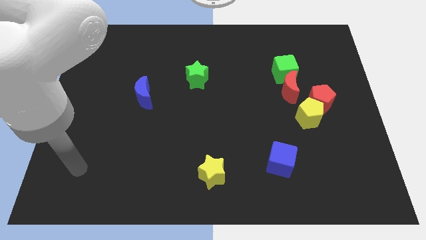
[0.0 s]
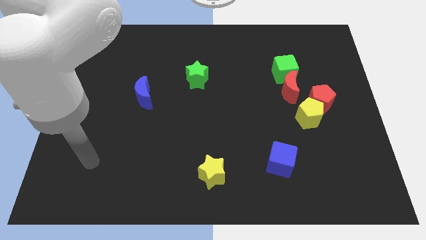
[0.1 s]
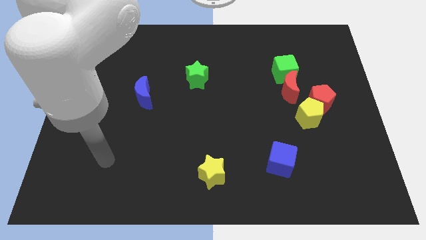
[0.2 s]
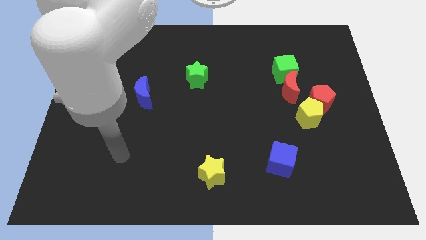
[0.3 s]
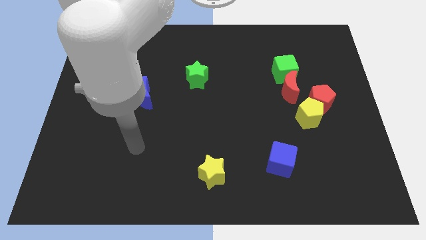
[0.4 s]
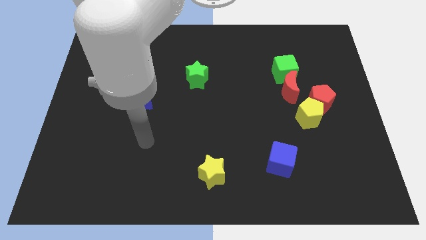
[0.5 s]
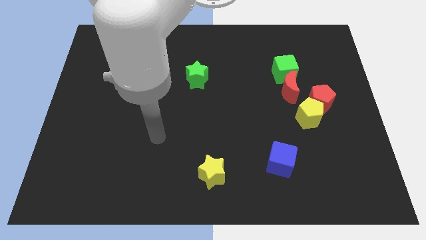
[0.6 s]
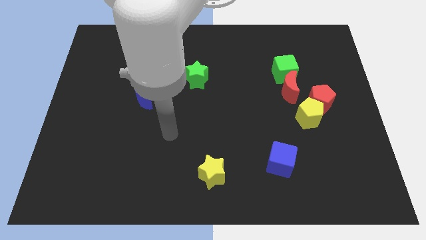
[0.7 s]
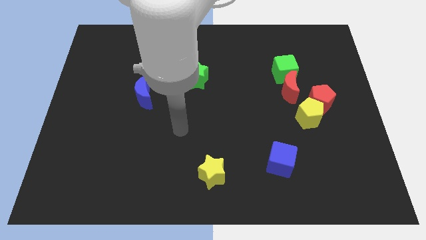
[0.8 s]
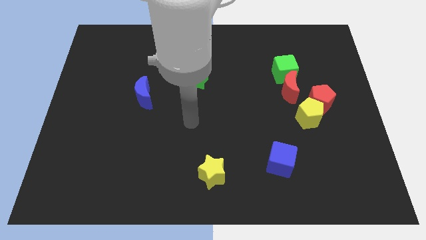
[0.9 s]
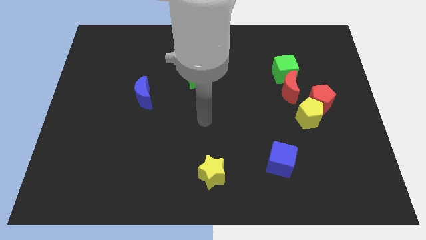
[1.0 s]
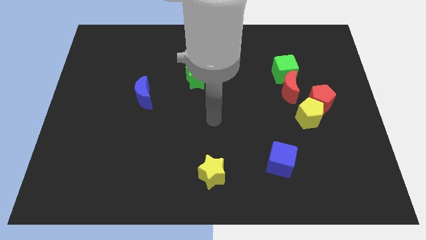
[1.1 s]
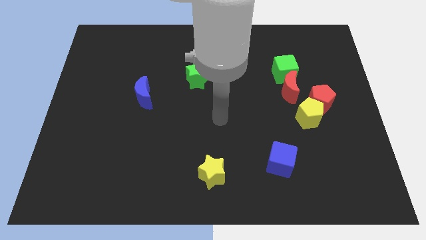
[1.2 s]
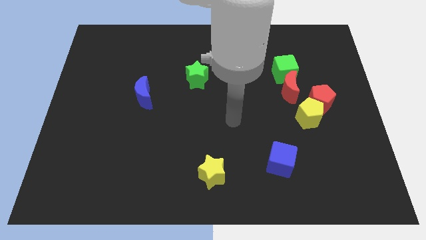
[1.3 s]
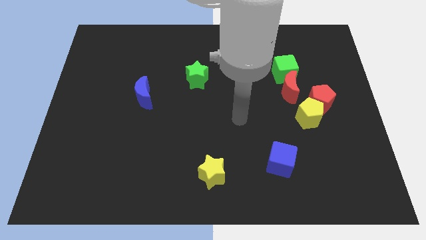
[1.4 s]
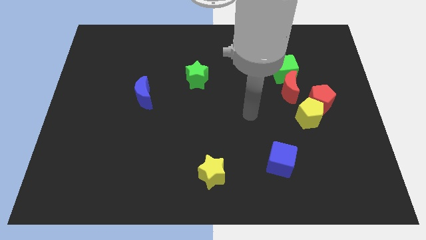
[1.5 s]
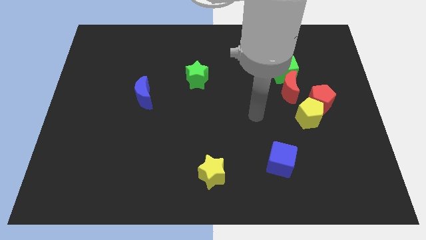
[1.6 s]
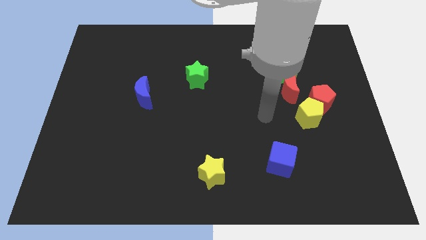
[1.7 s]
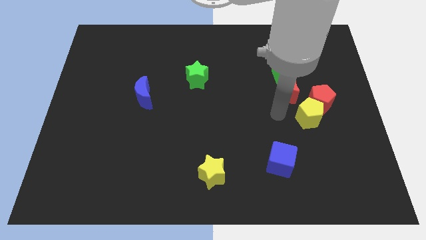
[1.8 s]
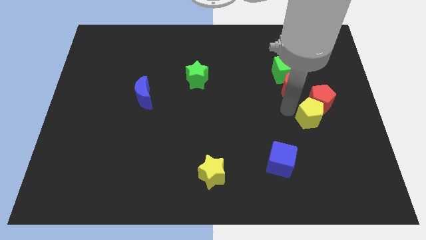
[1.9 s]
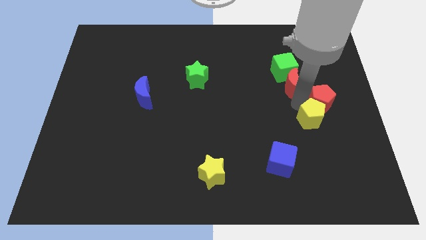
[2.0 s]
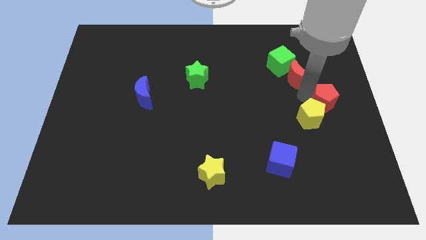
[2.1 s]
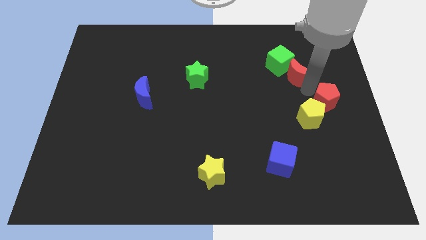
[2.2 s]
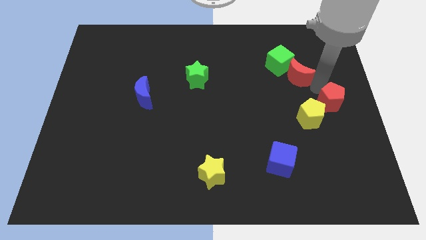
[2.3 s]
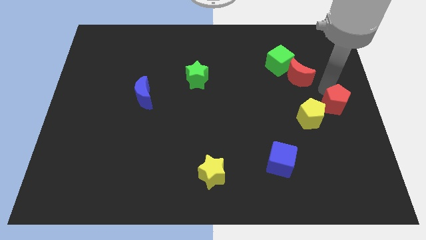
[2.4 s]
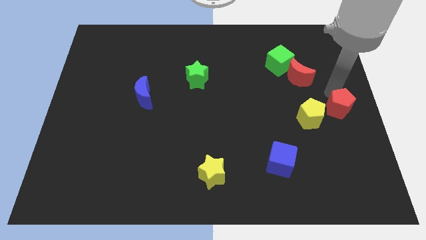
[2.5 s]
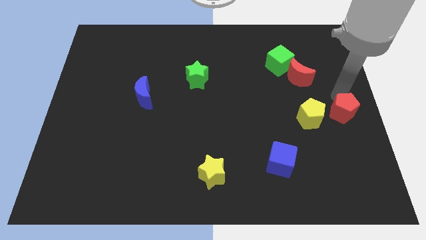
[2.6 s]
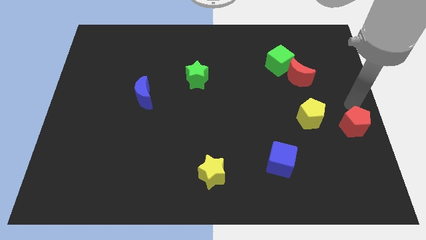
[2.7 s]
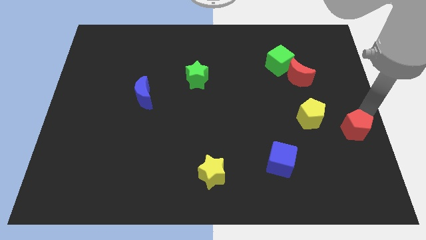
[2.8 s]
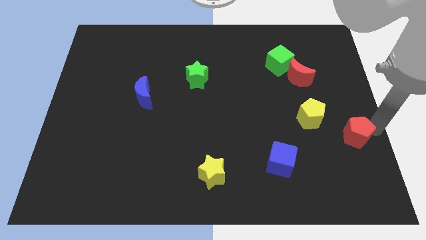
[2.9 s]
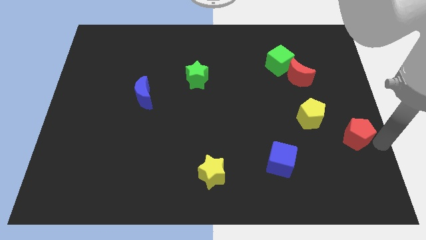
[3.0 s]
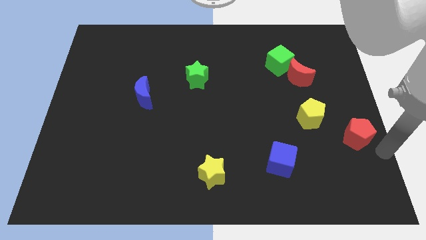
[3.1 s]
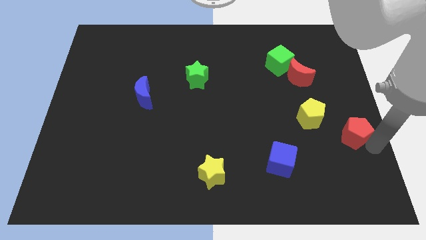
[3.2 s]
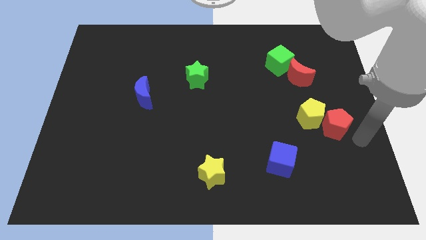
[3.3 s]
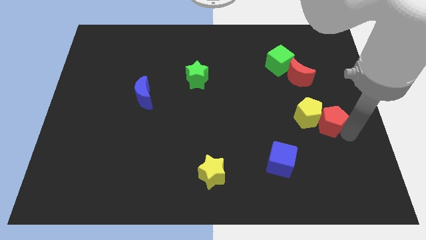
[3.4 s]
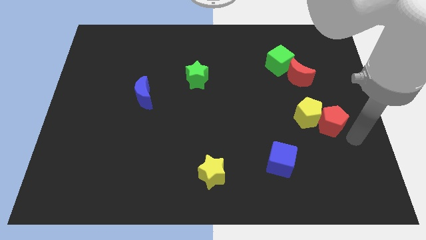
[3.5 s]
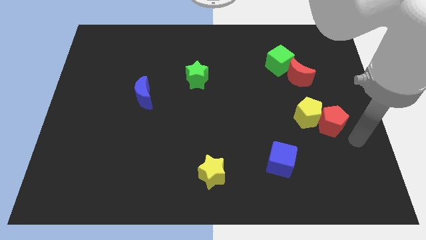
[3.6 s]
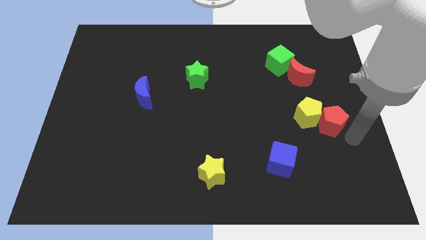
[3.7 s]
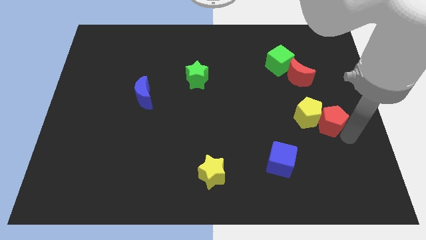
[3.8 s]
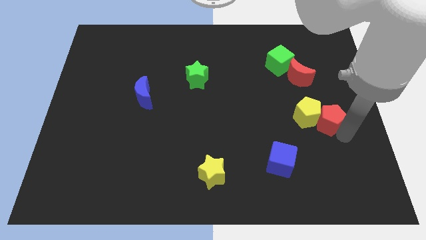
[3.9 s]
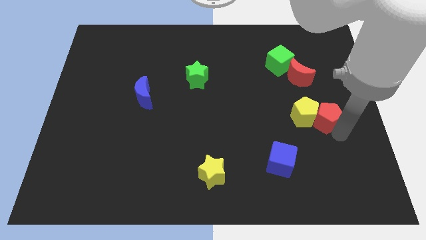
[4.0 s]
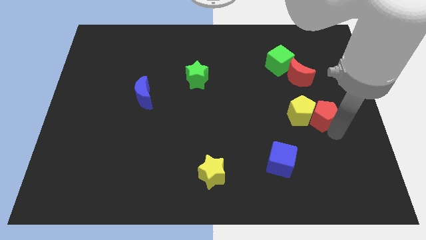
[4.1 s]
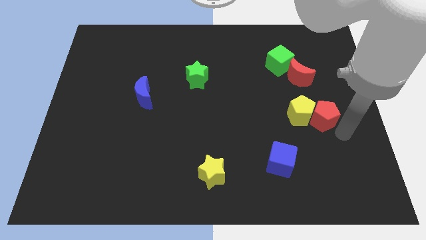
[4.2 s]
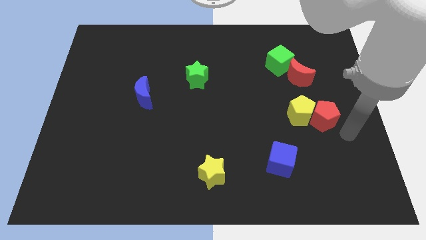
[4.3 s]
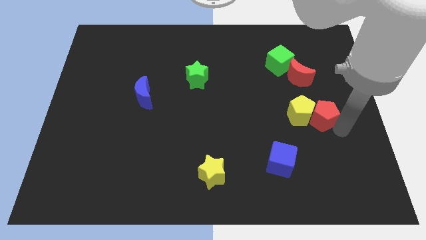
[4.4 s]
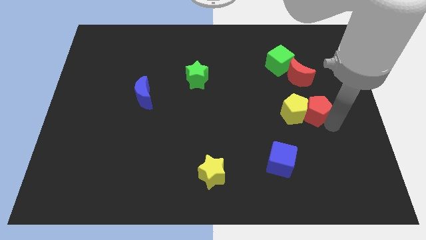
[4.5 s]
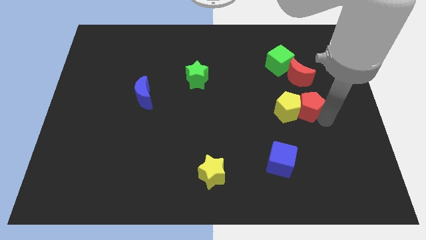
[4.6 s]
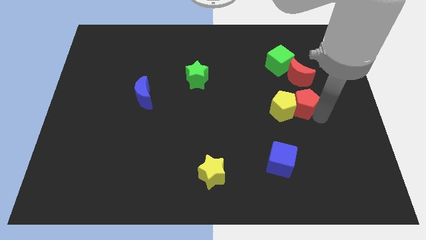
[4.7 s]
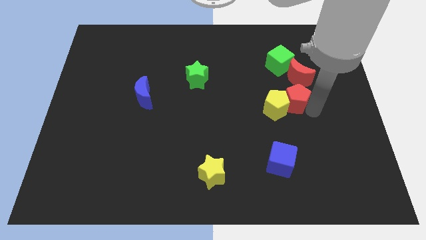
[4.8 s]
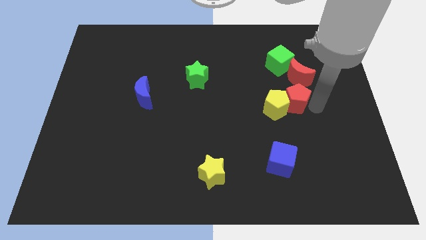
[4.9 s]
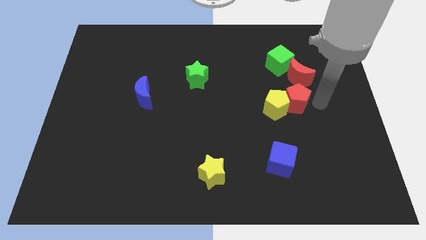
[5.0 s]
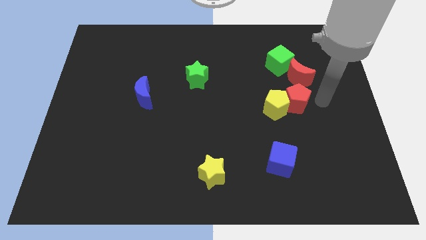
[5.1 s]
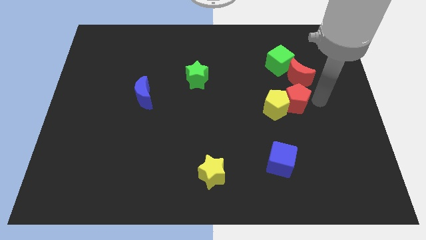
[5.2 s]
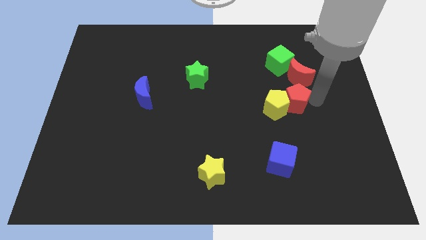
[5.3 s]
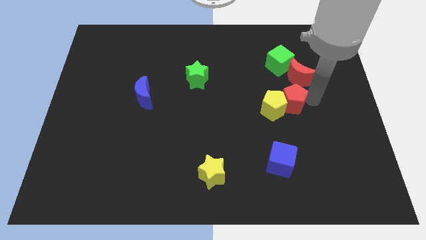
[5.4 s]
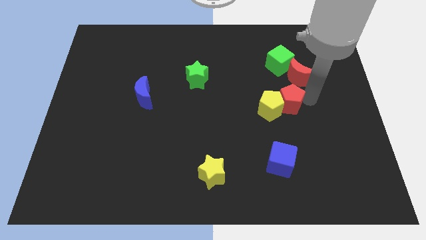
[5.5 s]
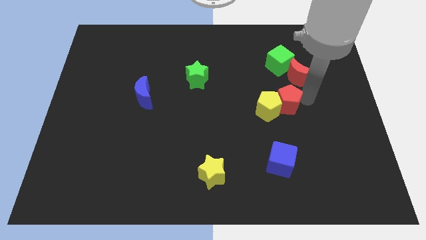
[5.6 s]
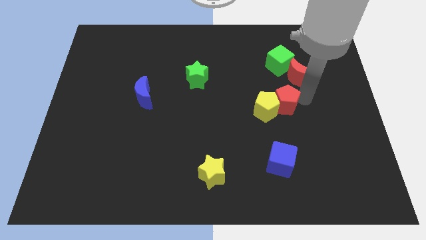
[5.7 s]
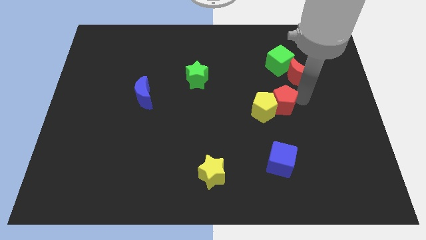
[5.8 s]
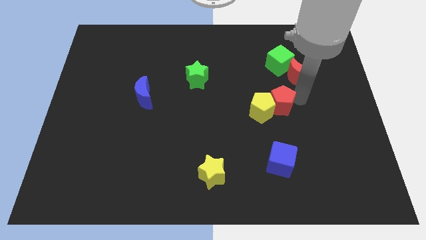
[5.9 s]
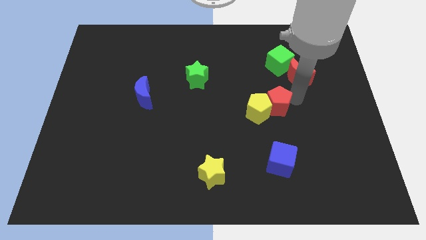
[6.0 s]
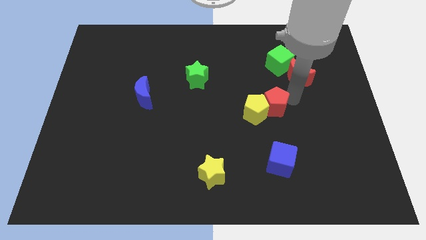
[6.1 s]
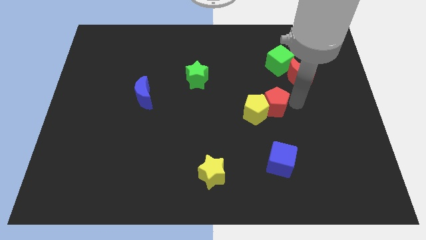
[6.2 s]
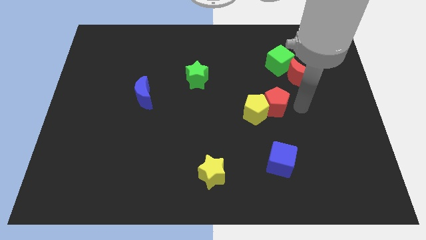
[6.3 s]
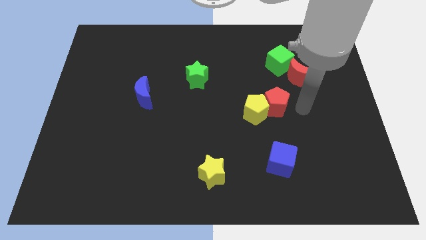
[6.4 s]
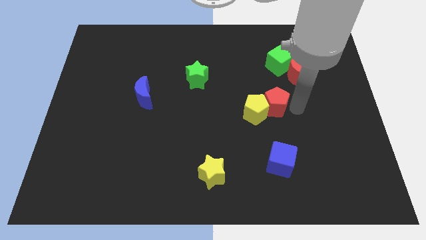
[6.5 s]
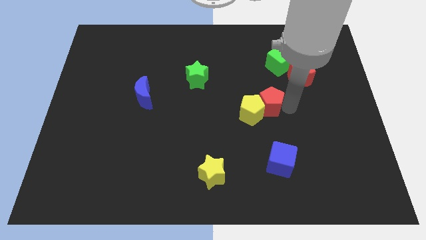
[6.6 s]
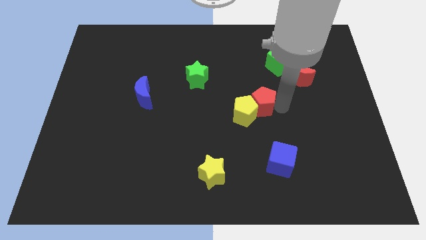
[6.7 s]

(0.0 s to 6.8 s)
push the red pentagon to the center of the board

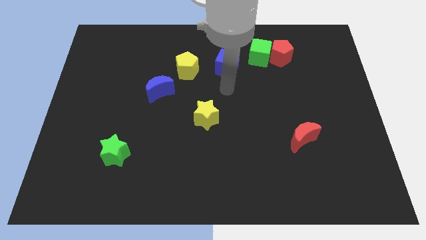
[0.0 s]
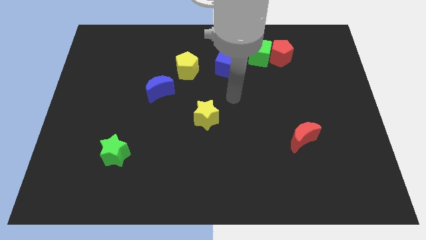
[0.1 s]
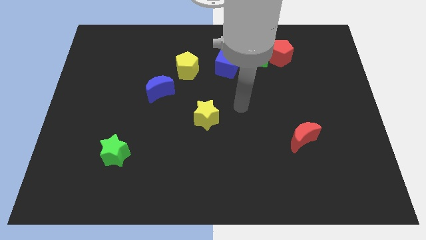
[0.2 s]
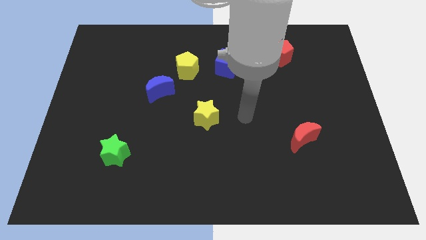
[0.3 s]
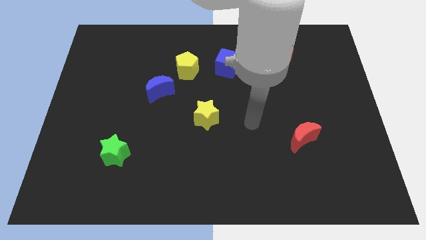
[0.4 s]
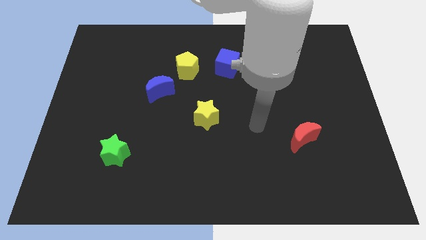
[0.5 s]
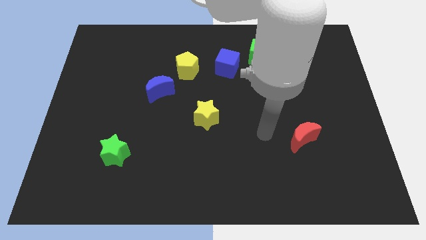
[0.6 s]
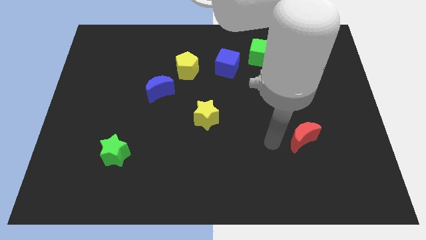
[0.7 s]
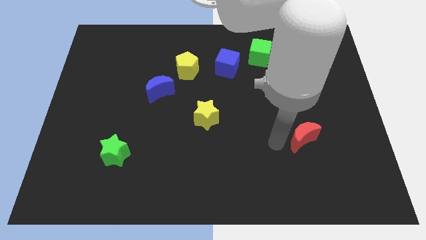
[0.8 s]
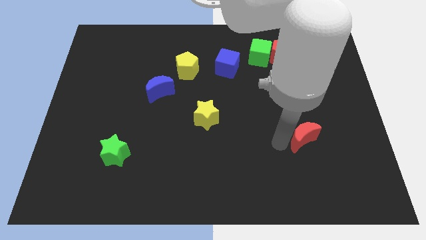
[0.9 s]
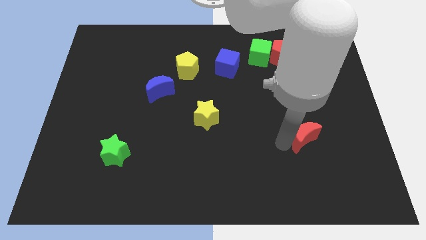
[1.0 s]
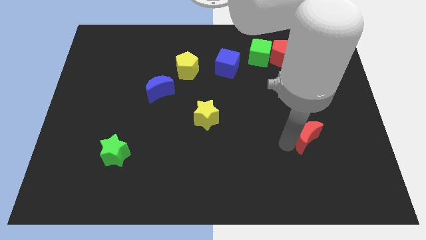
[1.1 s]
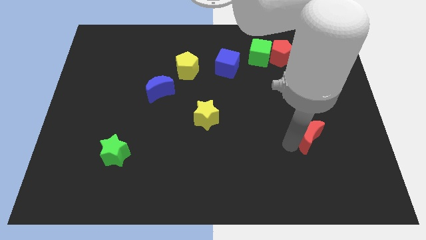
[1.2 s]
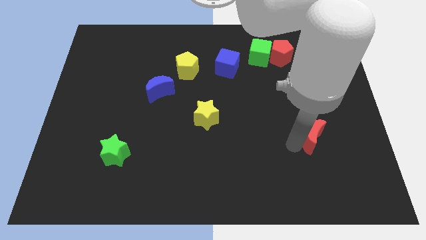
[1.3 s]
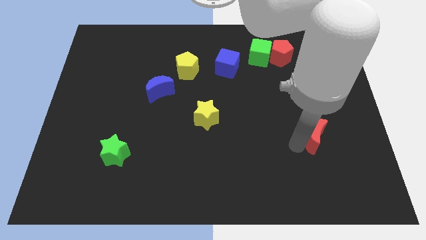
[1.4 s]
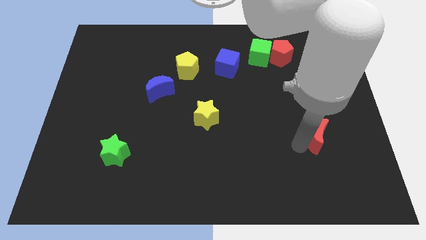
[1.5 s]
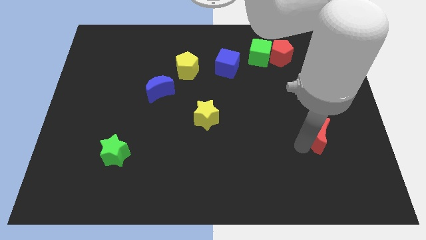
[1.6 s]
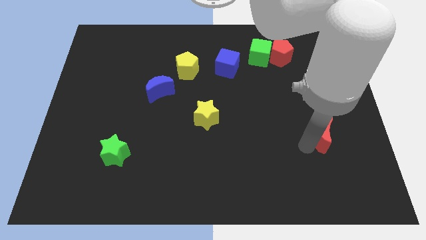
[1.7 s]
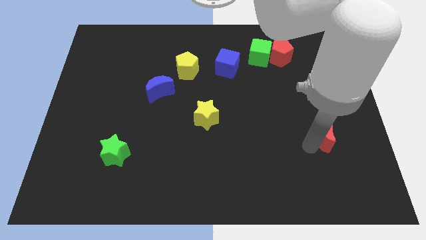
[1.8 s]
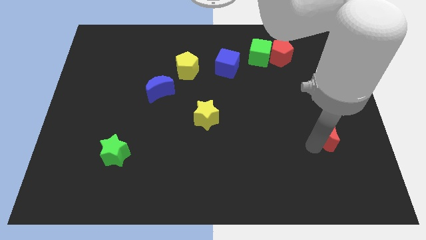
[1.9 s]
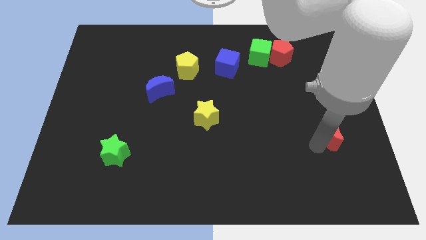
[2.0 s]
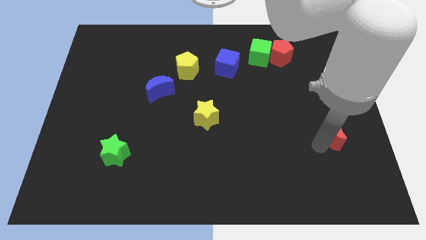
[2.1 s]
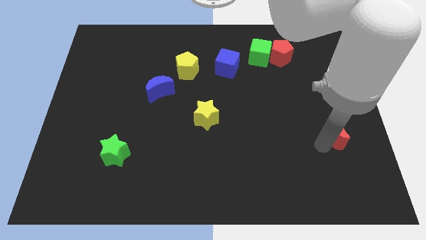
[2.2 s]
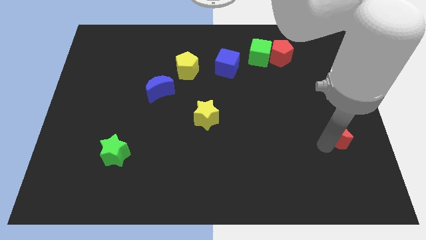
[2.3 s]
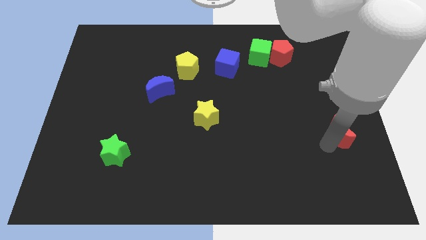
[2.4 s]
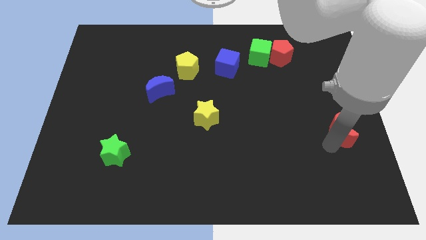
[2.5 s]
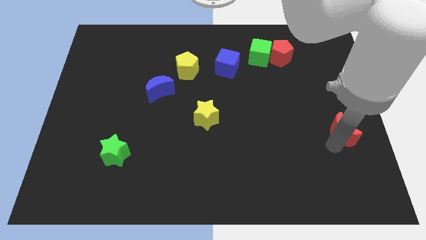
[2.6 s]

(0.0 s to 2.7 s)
move the red moon to the right side
